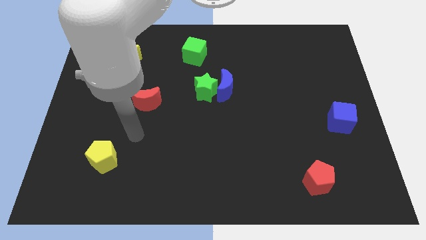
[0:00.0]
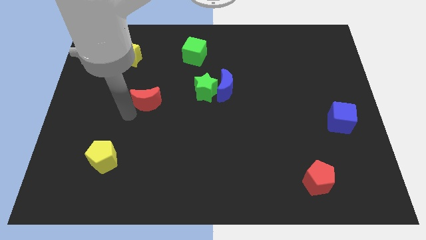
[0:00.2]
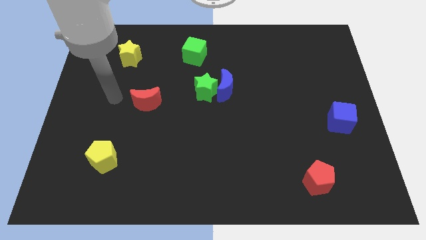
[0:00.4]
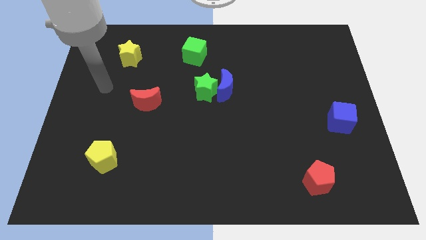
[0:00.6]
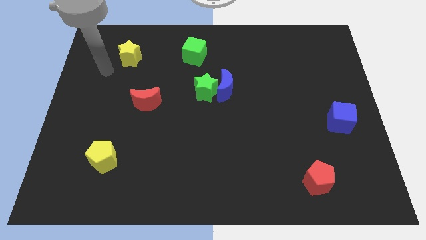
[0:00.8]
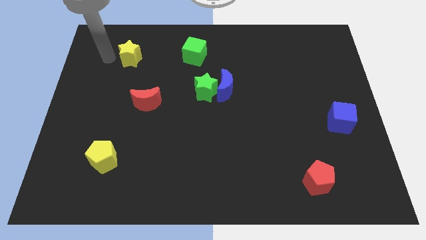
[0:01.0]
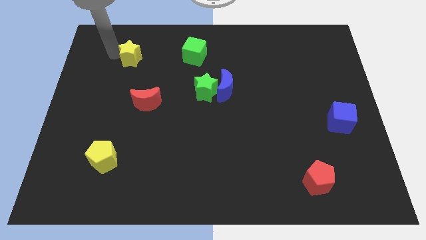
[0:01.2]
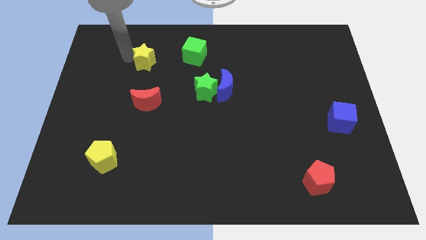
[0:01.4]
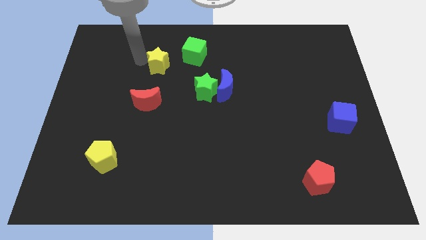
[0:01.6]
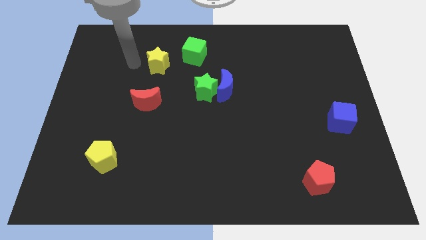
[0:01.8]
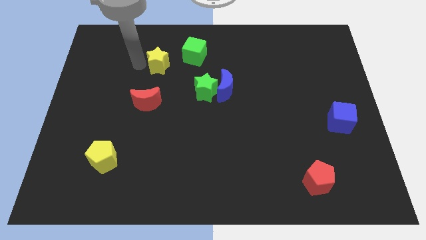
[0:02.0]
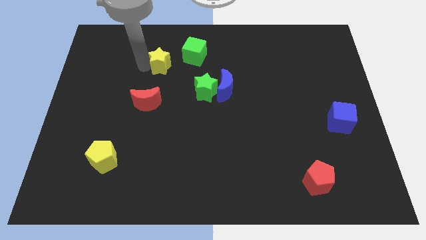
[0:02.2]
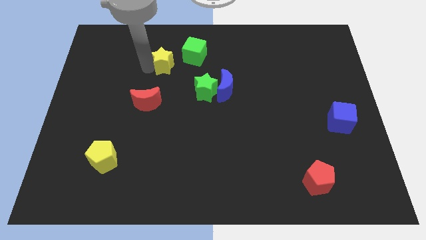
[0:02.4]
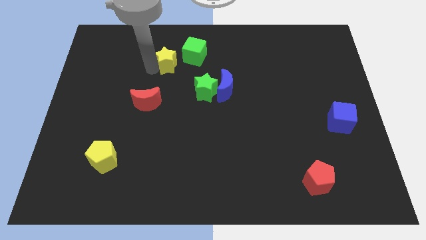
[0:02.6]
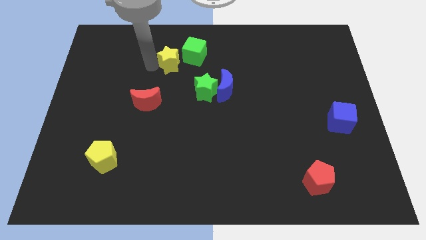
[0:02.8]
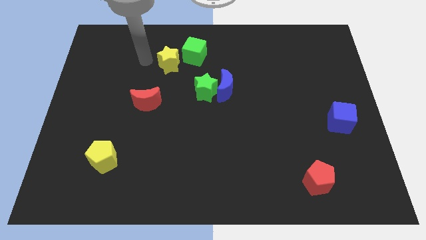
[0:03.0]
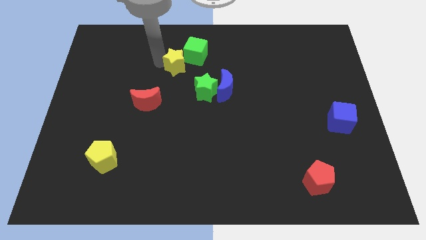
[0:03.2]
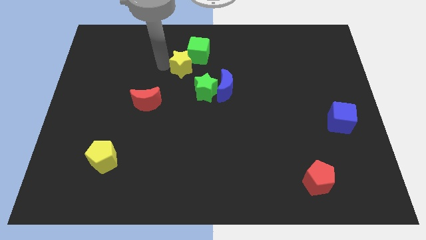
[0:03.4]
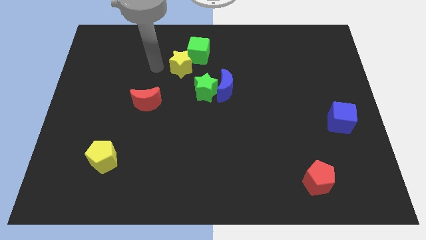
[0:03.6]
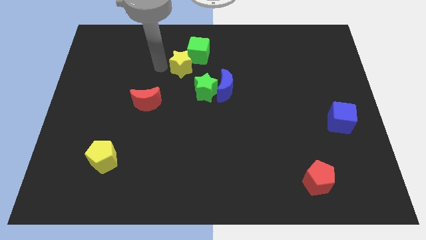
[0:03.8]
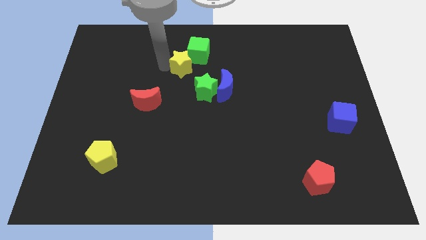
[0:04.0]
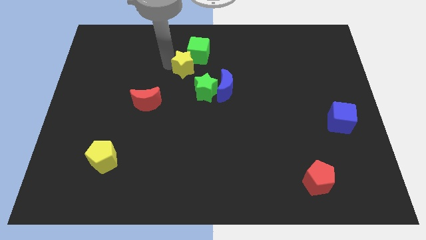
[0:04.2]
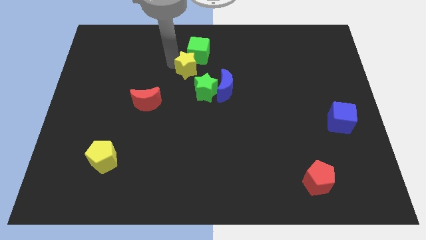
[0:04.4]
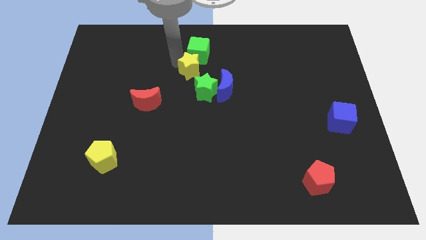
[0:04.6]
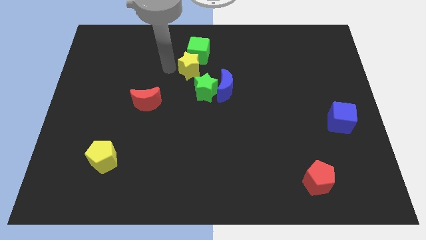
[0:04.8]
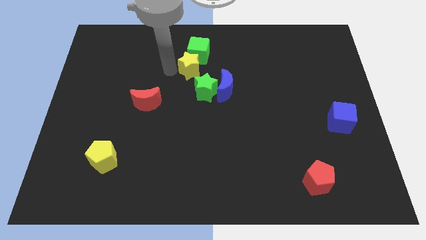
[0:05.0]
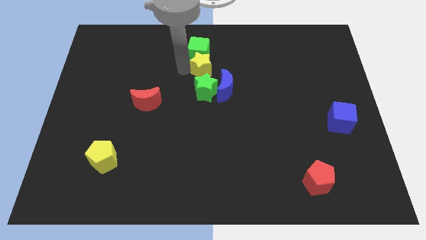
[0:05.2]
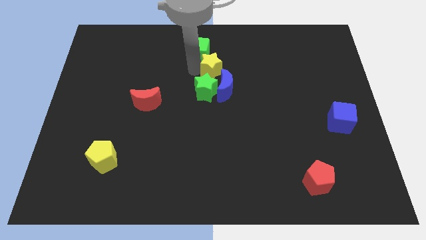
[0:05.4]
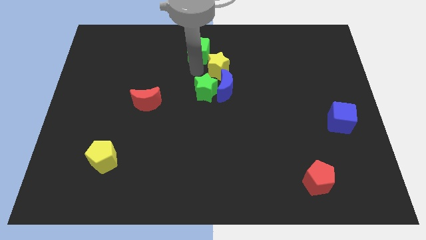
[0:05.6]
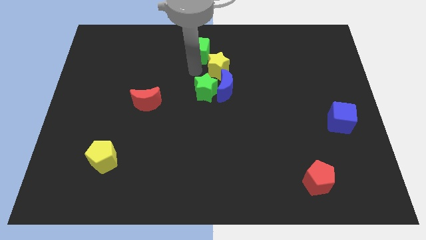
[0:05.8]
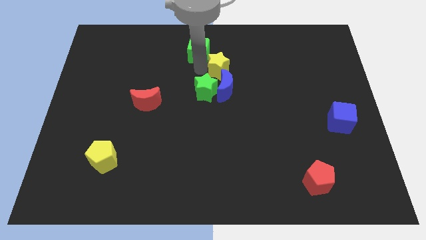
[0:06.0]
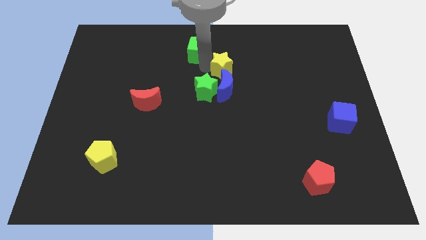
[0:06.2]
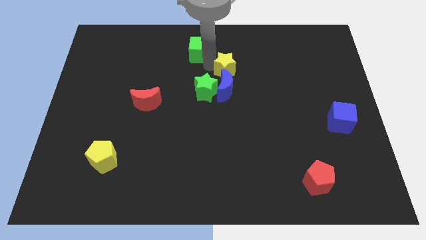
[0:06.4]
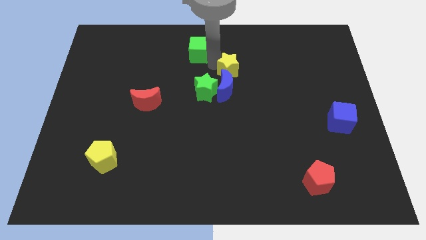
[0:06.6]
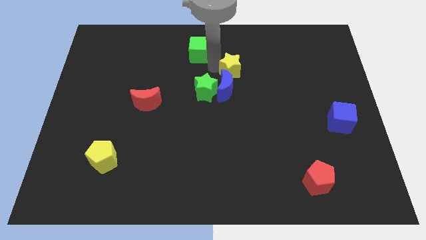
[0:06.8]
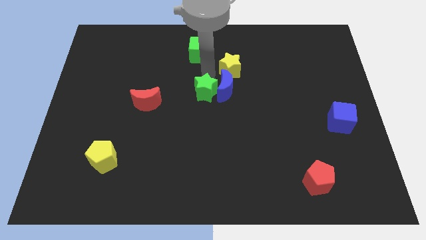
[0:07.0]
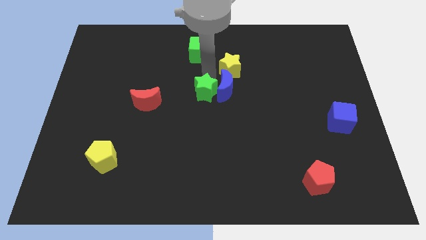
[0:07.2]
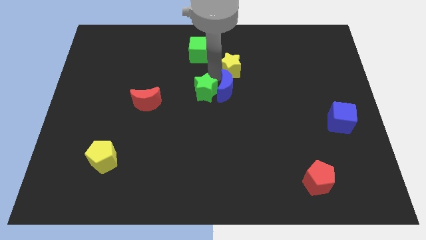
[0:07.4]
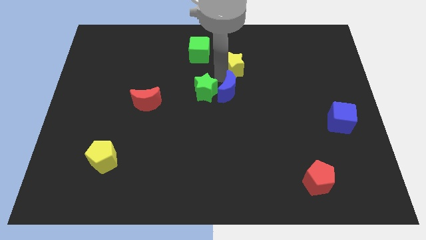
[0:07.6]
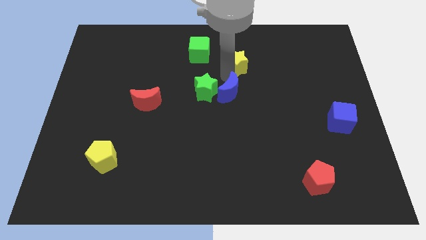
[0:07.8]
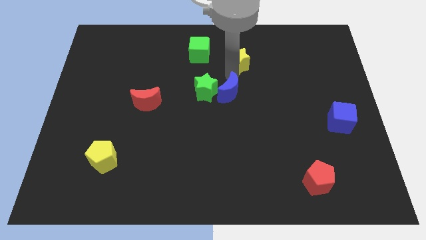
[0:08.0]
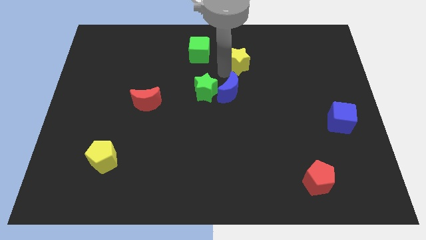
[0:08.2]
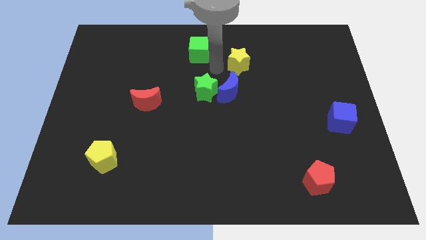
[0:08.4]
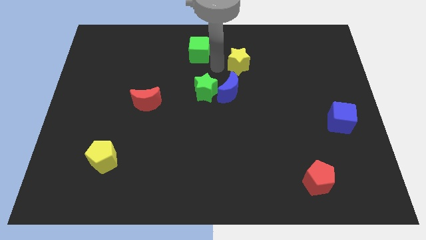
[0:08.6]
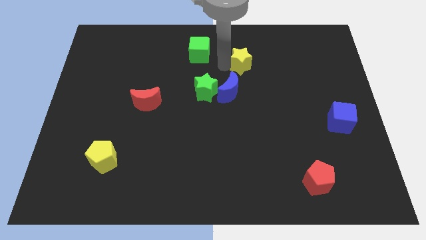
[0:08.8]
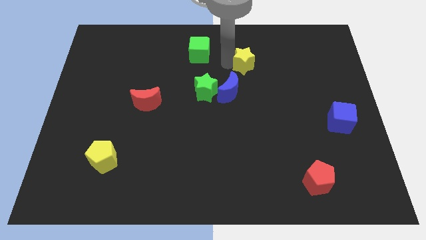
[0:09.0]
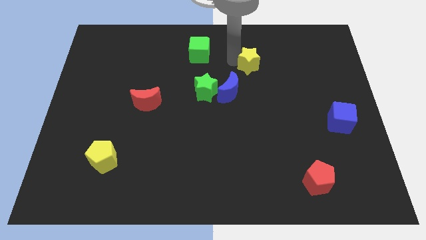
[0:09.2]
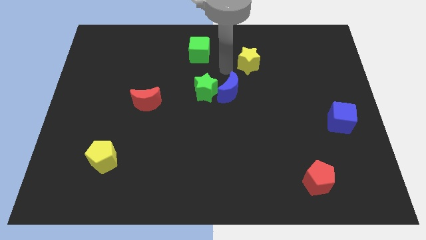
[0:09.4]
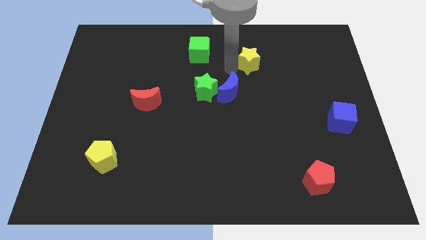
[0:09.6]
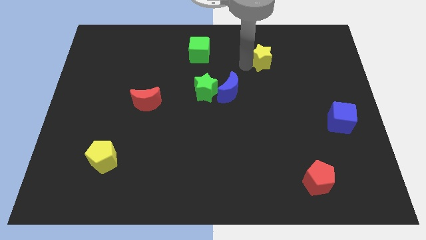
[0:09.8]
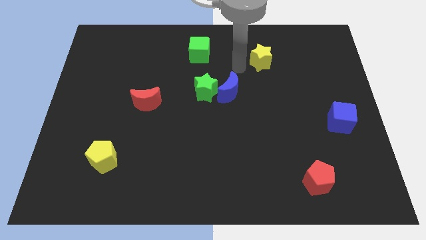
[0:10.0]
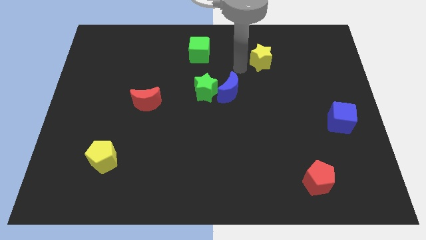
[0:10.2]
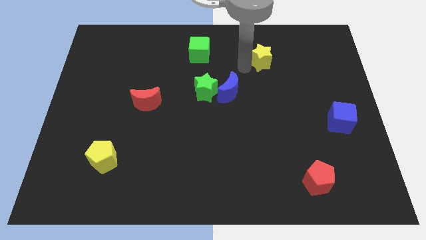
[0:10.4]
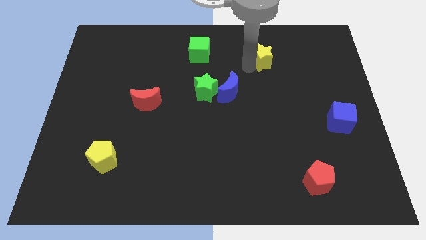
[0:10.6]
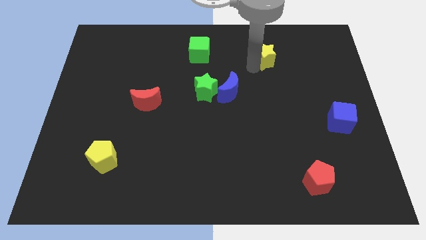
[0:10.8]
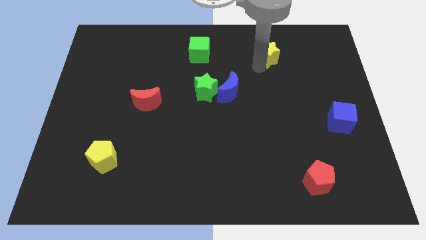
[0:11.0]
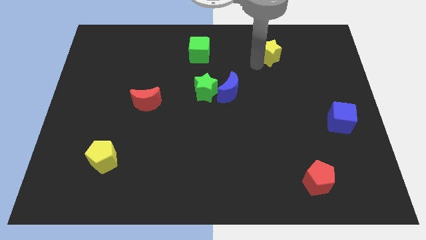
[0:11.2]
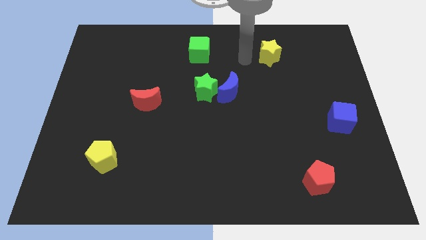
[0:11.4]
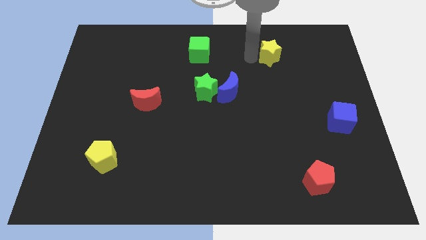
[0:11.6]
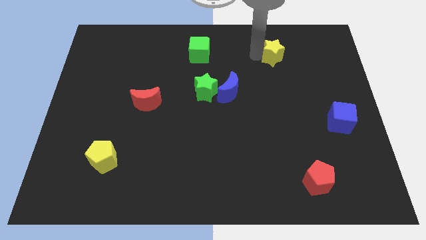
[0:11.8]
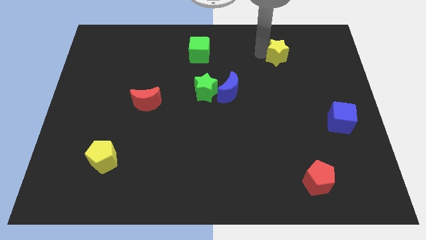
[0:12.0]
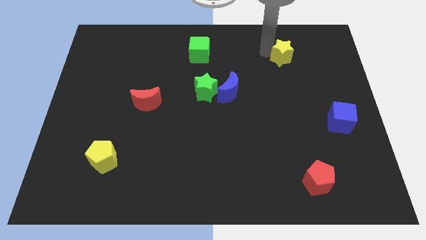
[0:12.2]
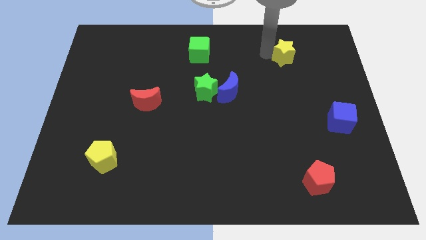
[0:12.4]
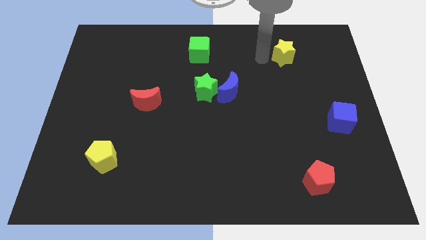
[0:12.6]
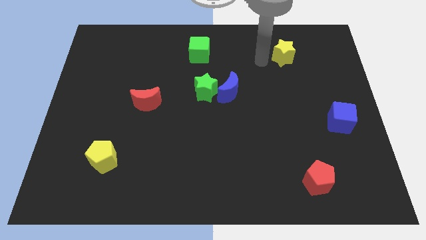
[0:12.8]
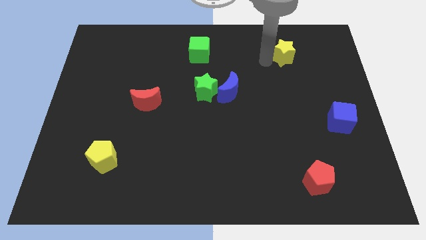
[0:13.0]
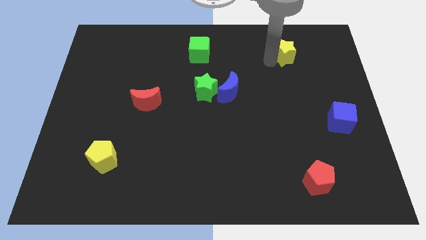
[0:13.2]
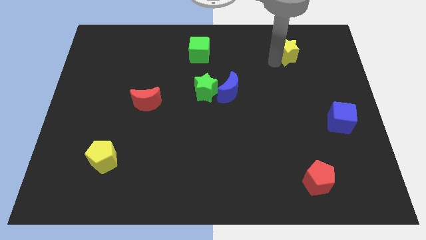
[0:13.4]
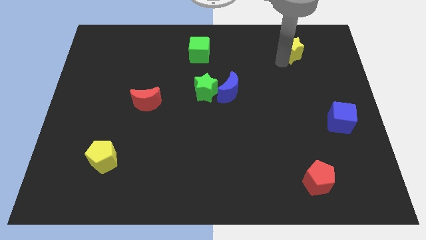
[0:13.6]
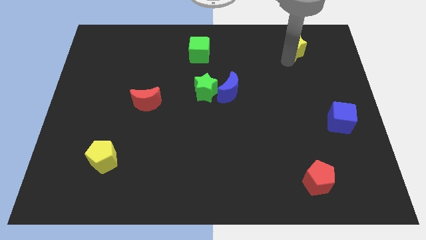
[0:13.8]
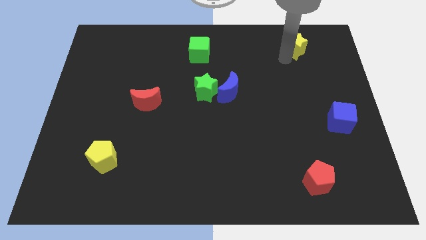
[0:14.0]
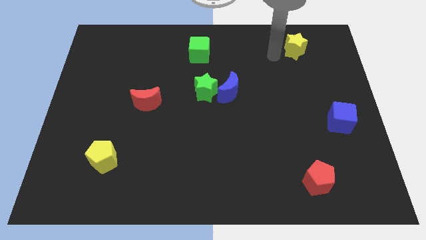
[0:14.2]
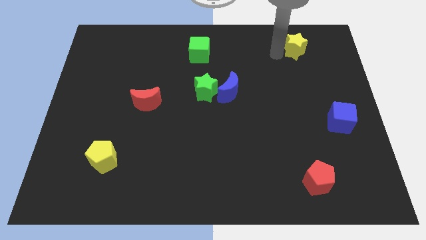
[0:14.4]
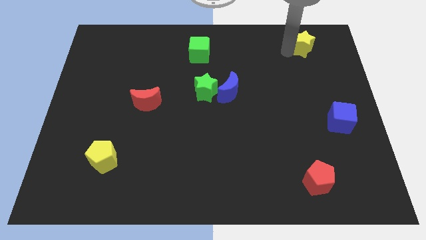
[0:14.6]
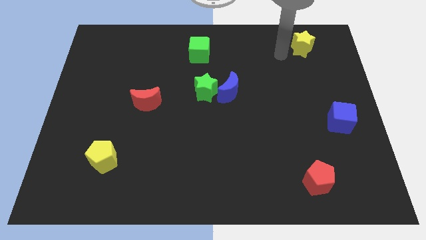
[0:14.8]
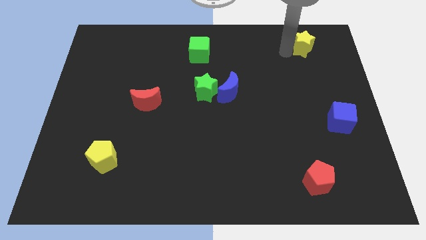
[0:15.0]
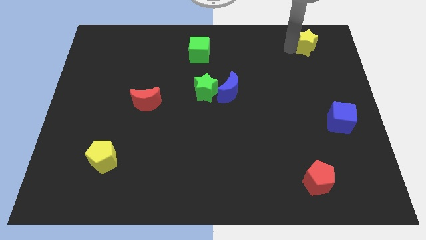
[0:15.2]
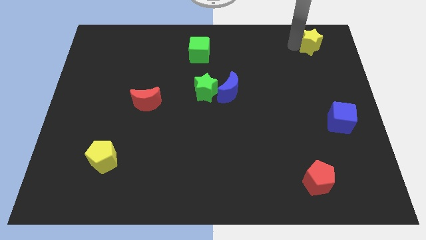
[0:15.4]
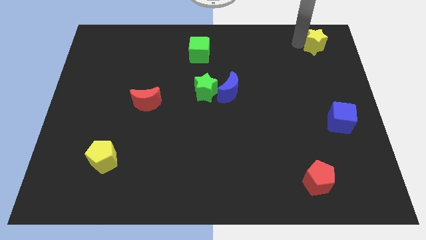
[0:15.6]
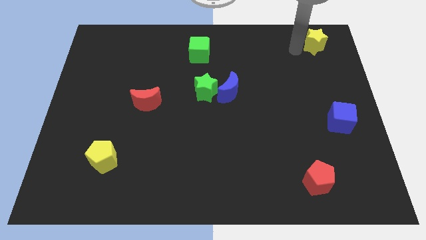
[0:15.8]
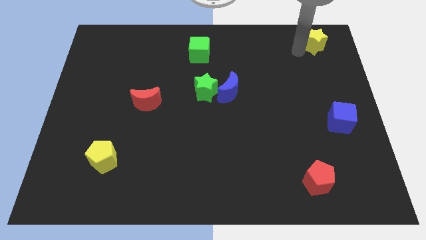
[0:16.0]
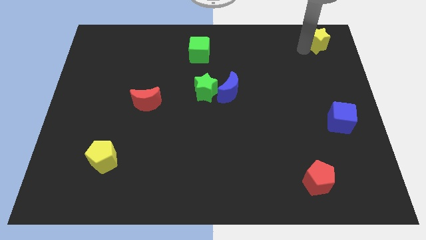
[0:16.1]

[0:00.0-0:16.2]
slide the yellow star to the upper right corner
